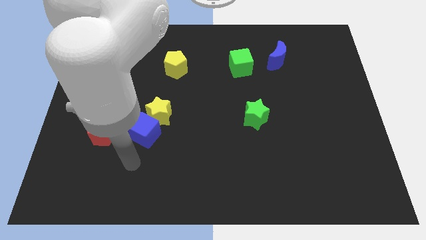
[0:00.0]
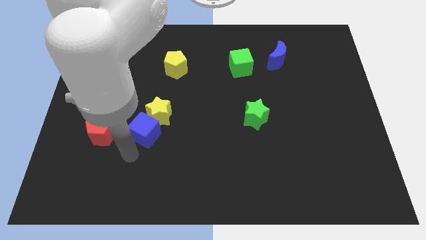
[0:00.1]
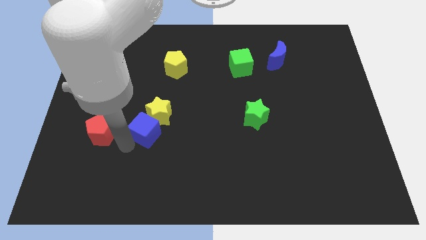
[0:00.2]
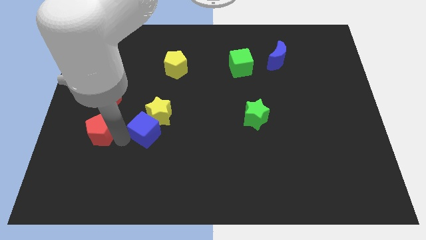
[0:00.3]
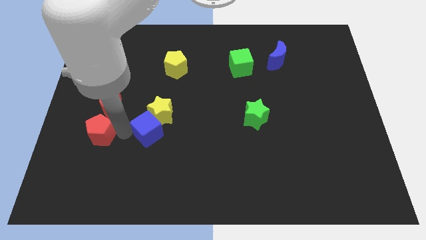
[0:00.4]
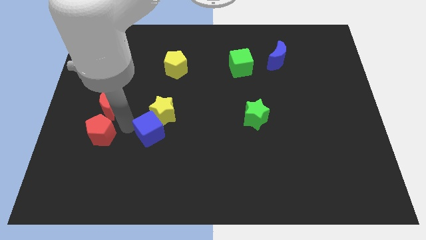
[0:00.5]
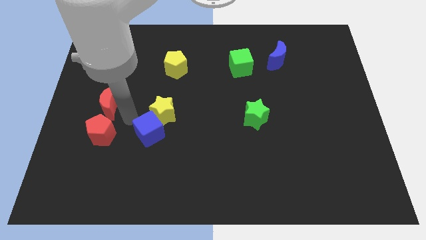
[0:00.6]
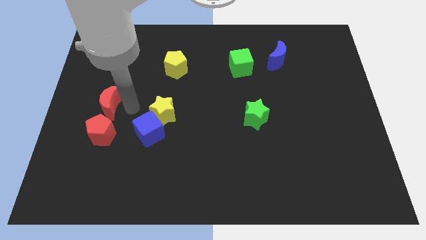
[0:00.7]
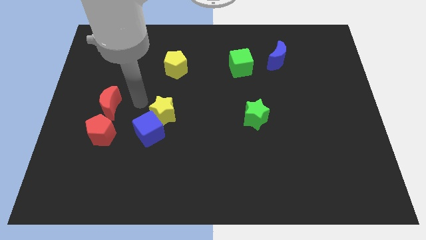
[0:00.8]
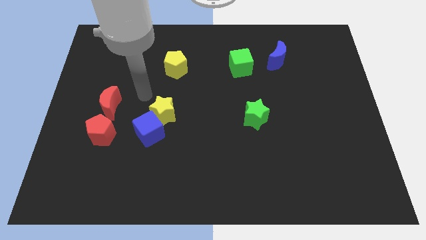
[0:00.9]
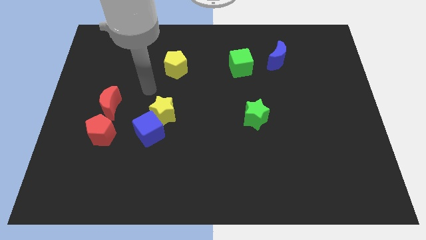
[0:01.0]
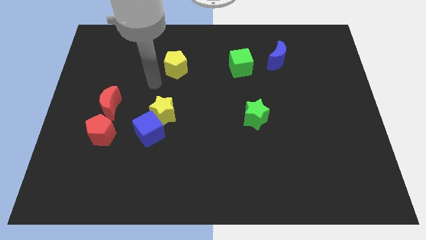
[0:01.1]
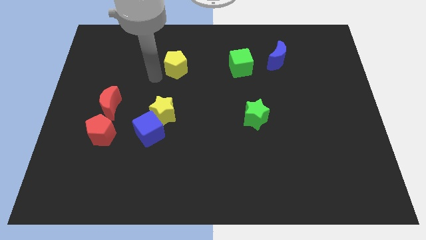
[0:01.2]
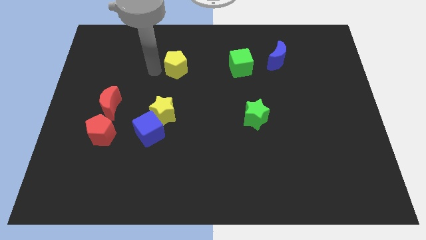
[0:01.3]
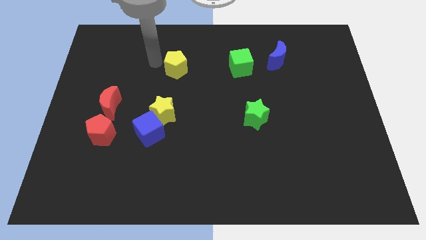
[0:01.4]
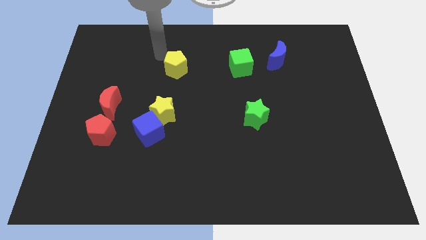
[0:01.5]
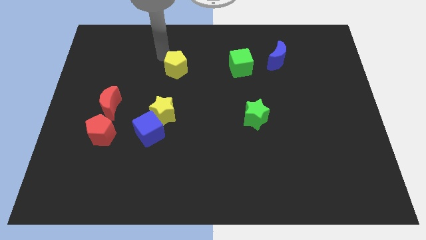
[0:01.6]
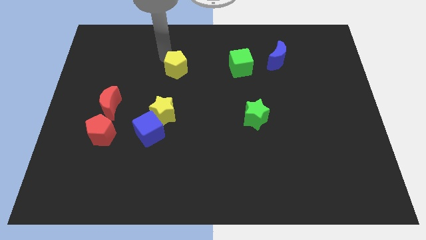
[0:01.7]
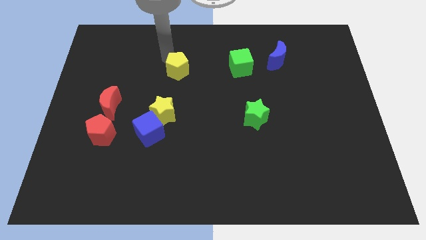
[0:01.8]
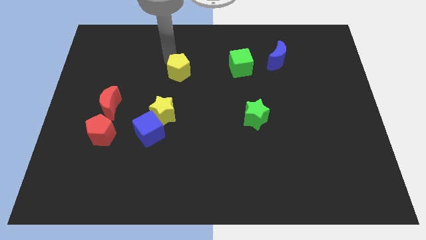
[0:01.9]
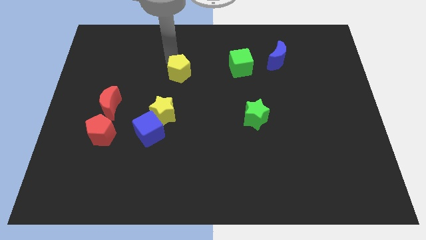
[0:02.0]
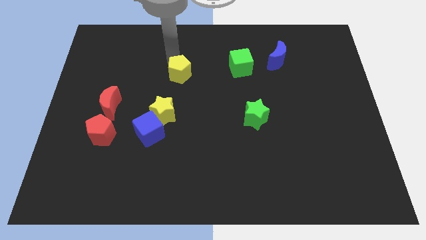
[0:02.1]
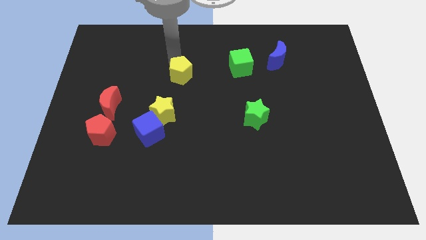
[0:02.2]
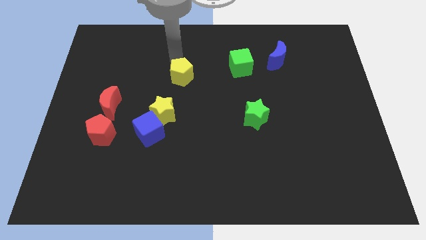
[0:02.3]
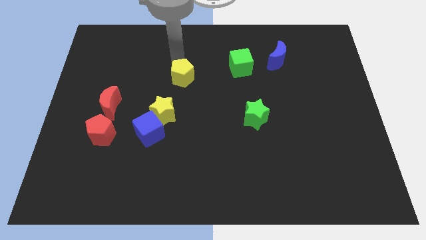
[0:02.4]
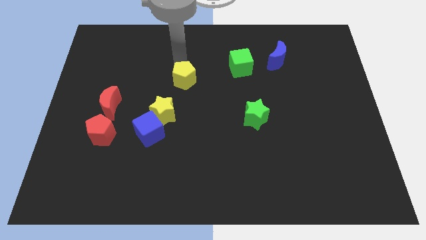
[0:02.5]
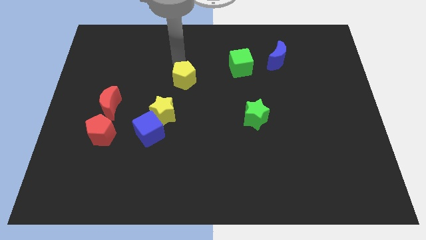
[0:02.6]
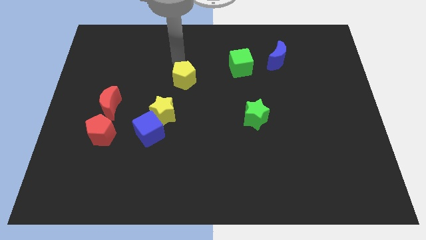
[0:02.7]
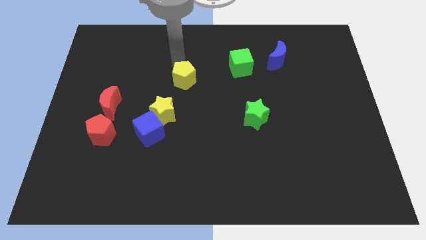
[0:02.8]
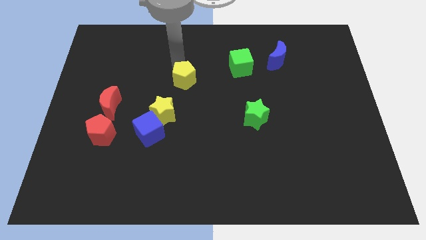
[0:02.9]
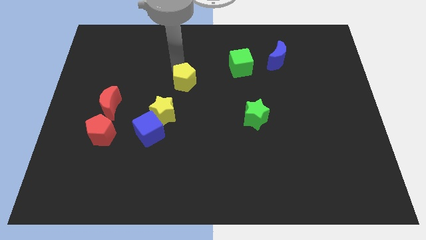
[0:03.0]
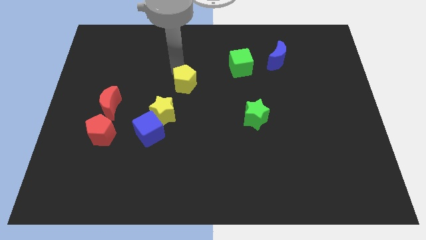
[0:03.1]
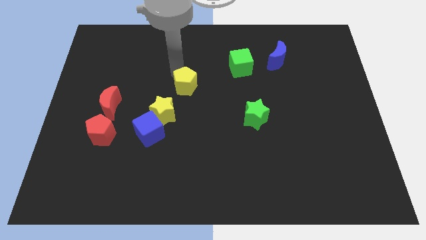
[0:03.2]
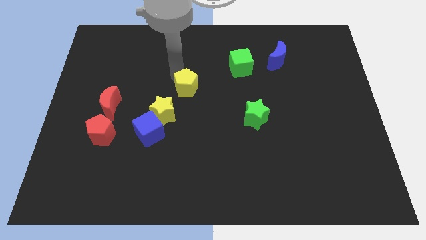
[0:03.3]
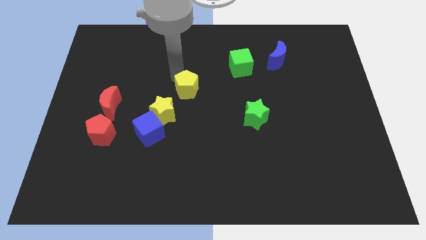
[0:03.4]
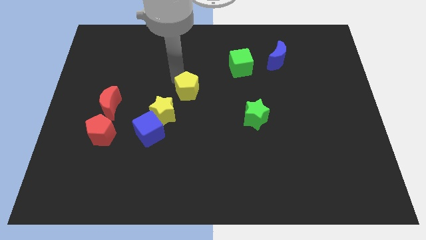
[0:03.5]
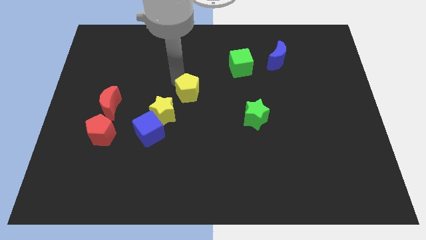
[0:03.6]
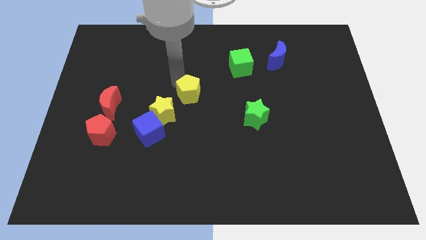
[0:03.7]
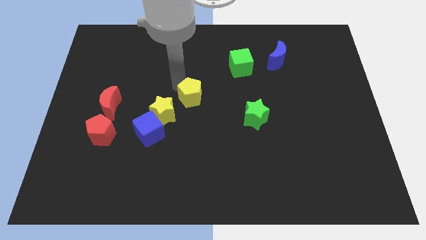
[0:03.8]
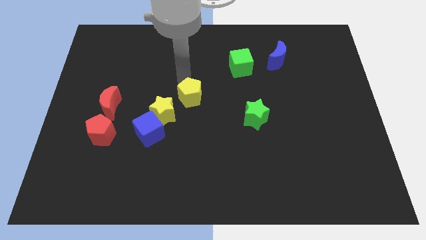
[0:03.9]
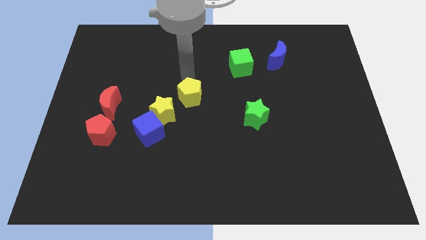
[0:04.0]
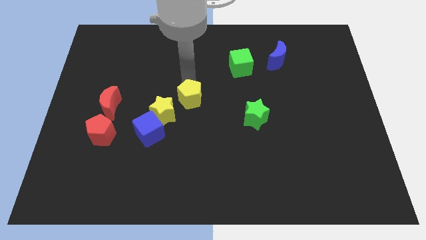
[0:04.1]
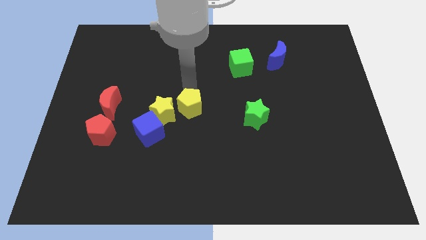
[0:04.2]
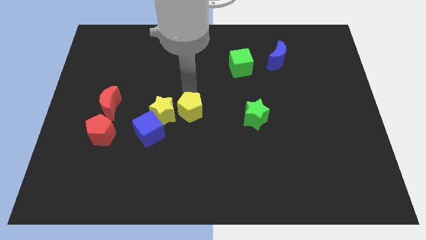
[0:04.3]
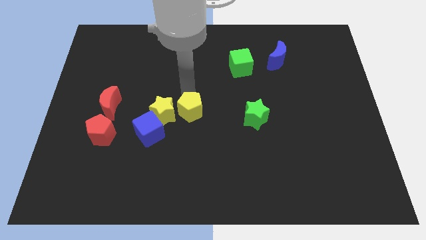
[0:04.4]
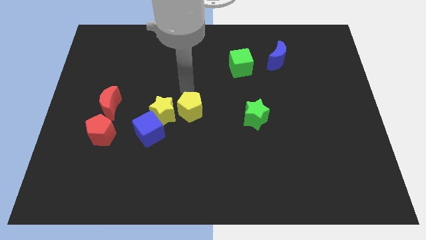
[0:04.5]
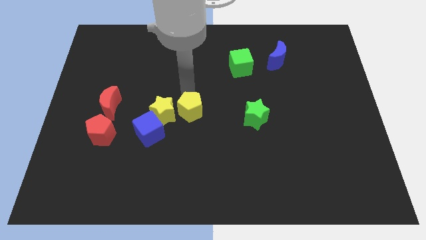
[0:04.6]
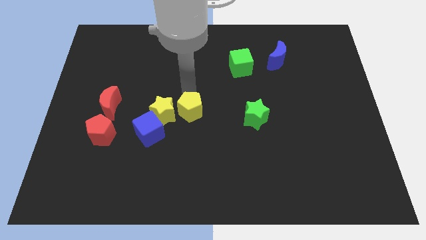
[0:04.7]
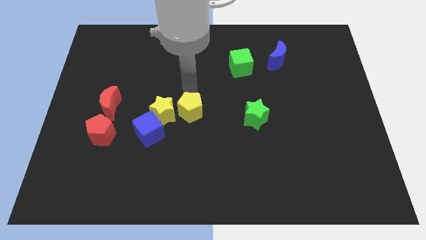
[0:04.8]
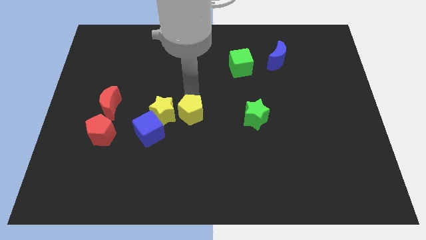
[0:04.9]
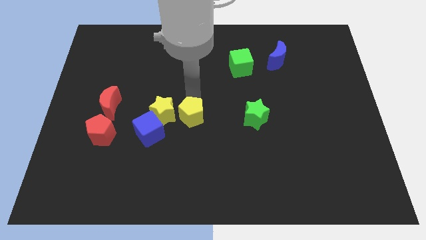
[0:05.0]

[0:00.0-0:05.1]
move the yellow pentagon to the right side of the blue cube

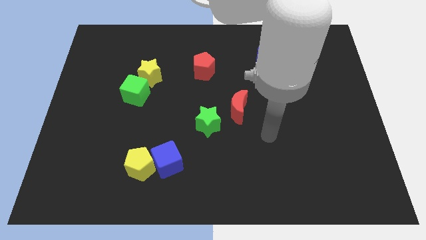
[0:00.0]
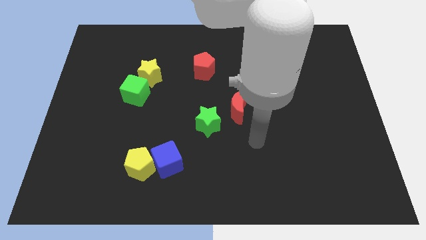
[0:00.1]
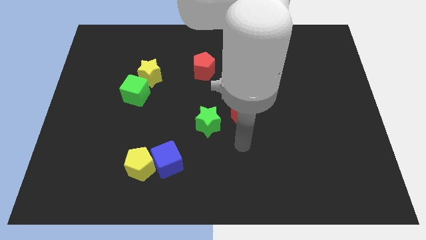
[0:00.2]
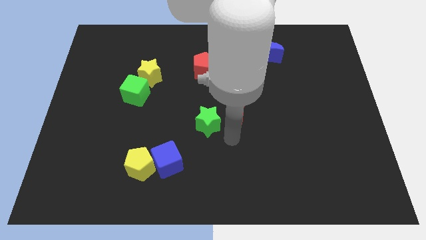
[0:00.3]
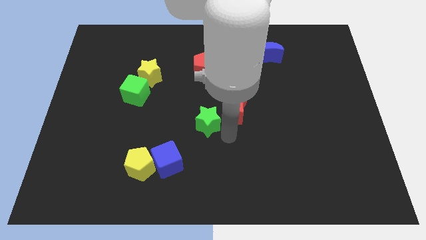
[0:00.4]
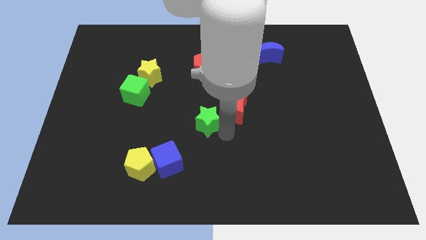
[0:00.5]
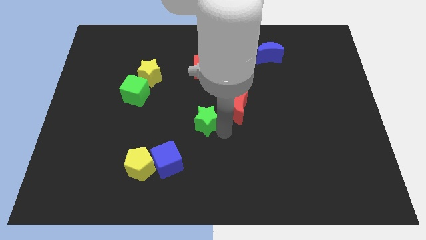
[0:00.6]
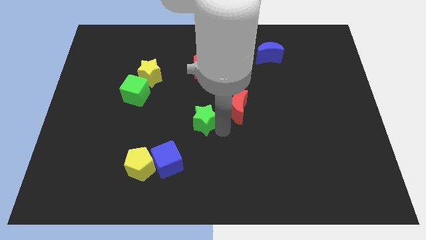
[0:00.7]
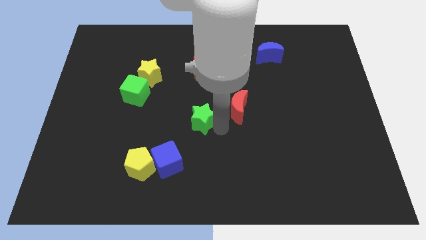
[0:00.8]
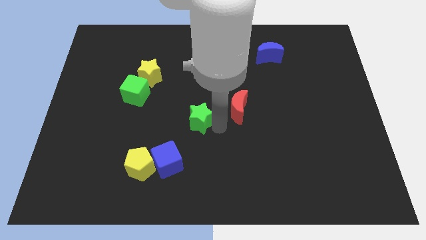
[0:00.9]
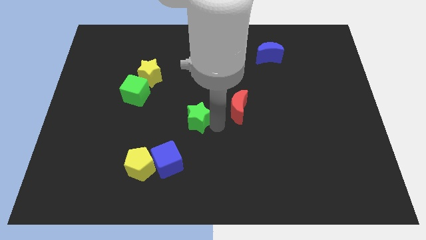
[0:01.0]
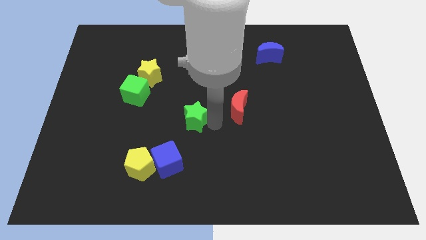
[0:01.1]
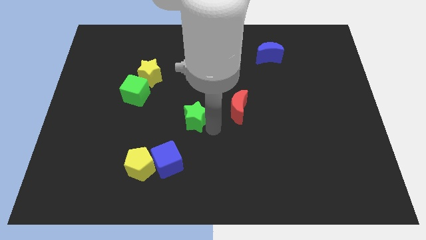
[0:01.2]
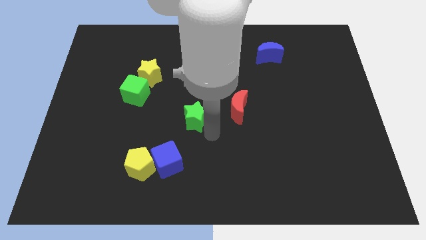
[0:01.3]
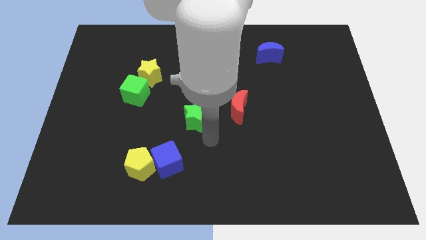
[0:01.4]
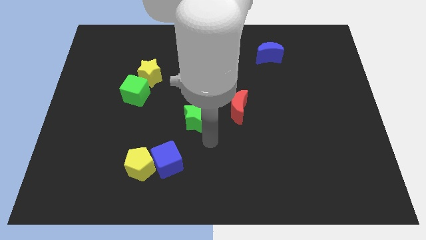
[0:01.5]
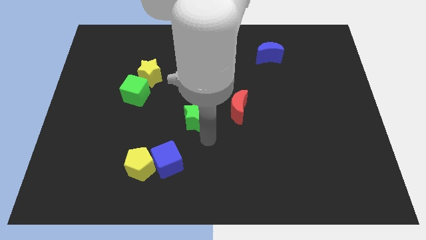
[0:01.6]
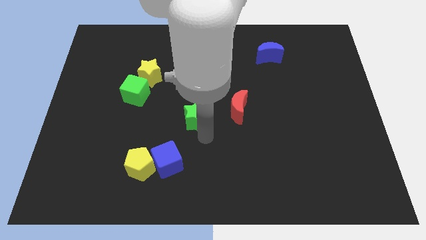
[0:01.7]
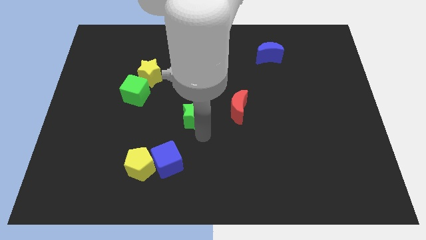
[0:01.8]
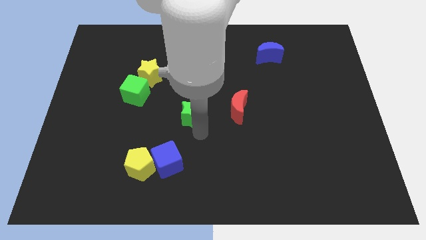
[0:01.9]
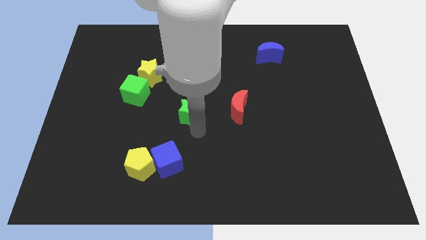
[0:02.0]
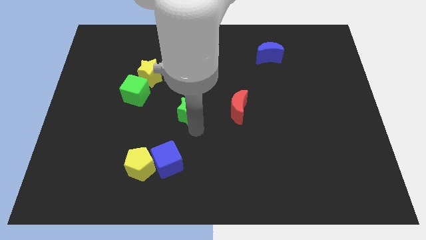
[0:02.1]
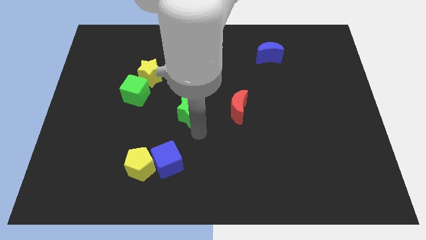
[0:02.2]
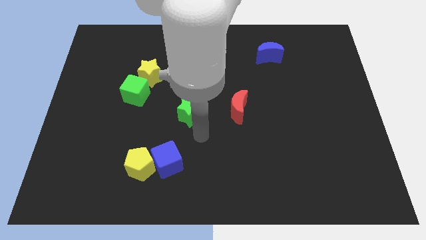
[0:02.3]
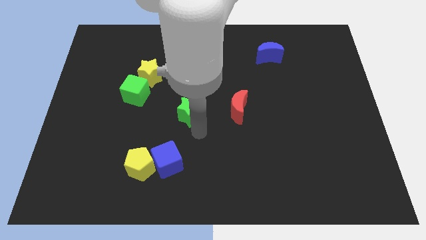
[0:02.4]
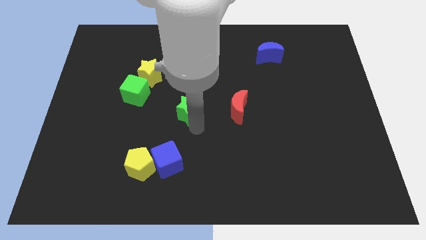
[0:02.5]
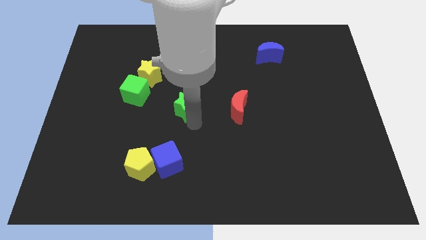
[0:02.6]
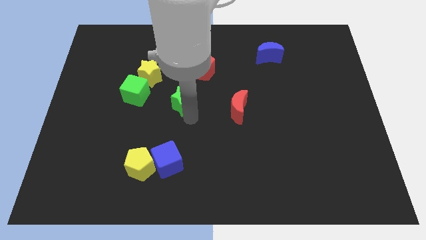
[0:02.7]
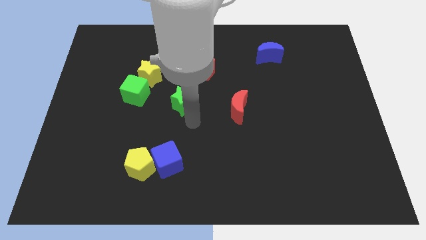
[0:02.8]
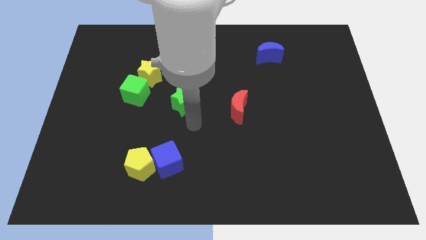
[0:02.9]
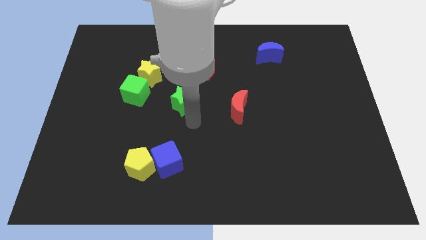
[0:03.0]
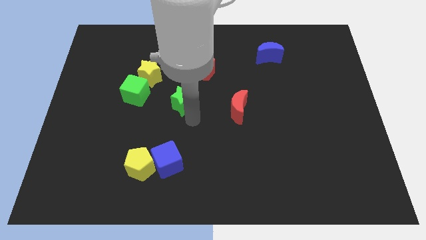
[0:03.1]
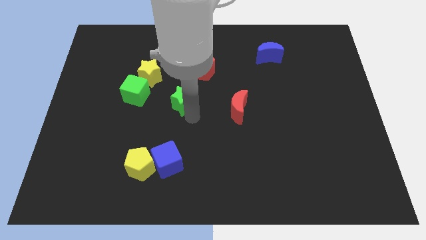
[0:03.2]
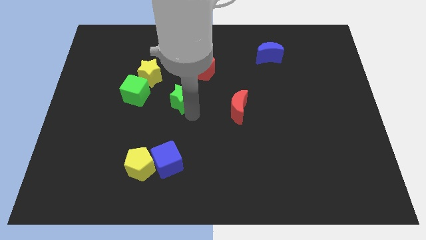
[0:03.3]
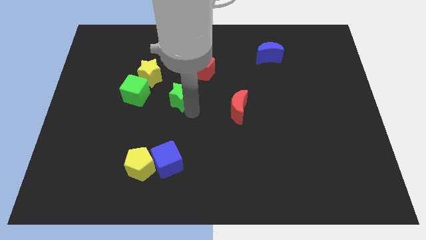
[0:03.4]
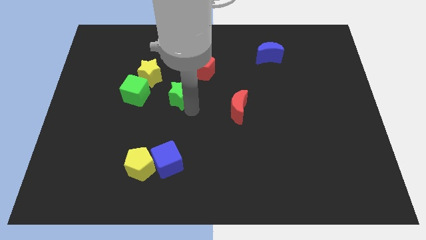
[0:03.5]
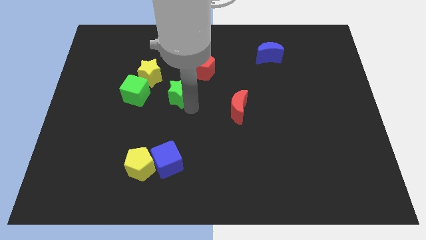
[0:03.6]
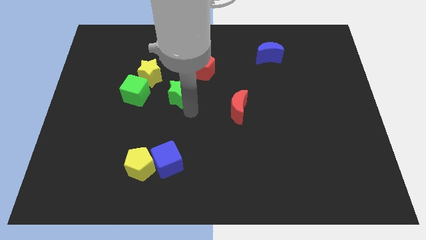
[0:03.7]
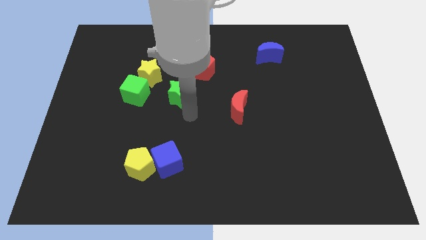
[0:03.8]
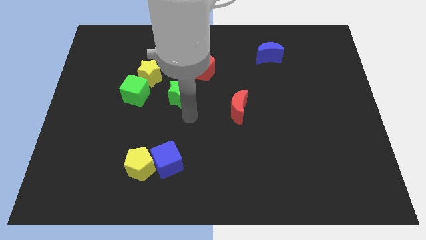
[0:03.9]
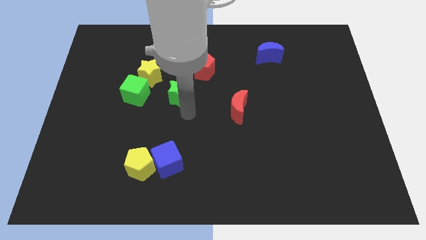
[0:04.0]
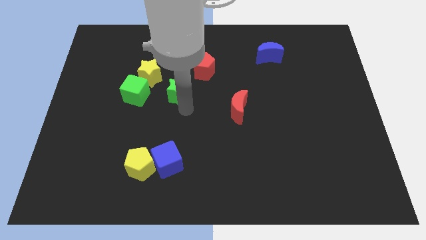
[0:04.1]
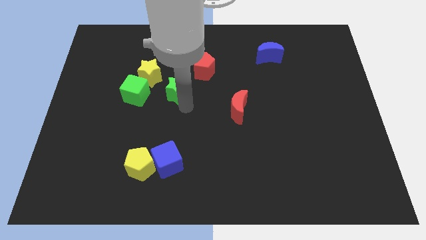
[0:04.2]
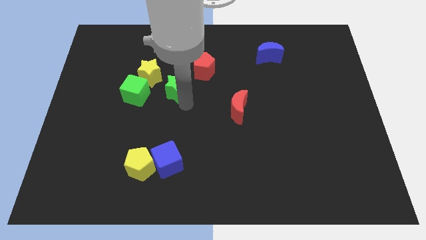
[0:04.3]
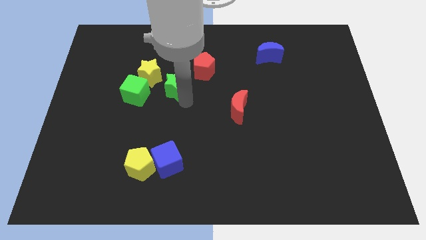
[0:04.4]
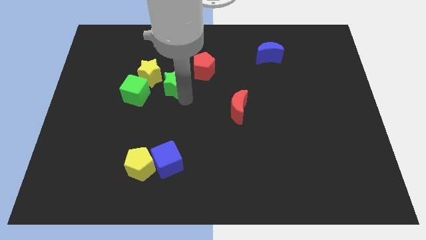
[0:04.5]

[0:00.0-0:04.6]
move the green star to the top right side of the green cube
